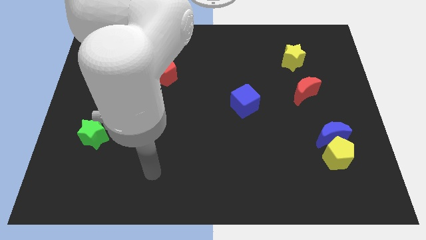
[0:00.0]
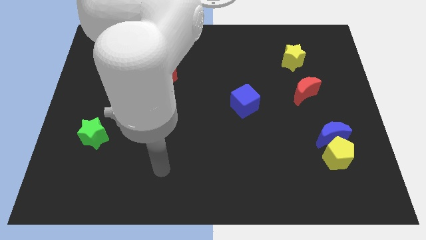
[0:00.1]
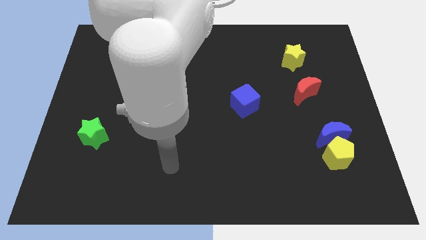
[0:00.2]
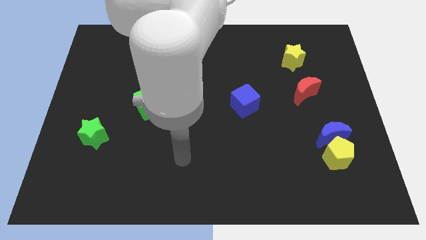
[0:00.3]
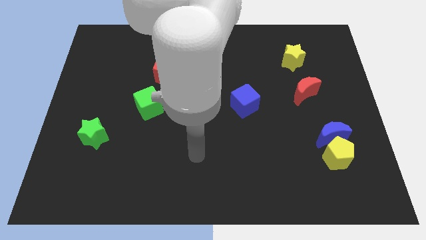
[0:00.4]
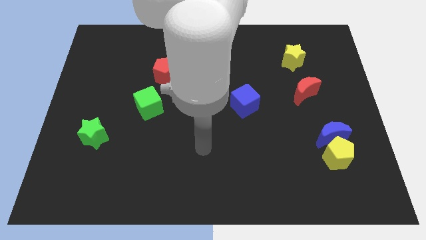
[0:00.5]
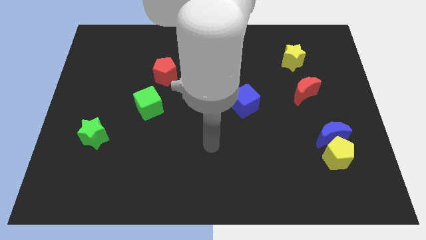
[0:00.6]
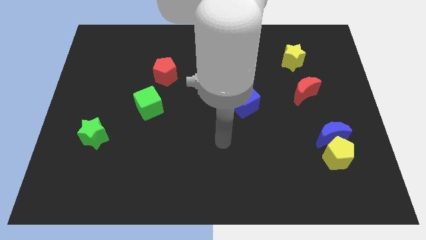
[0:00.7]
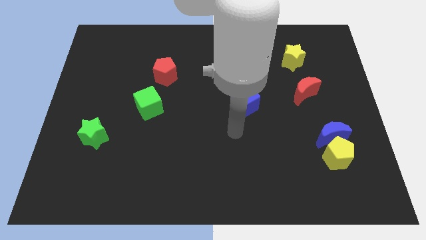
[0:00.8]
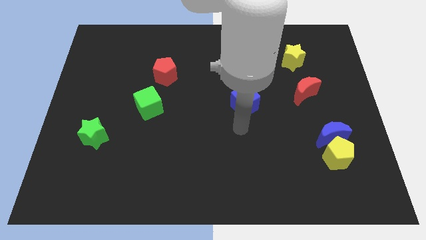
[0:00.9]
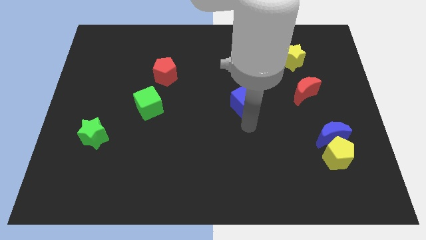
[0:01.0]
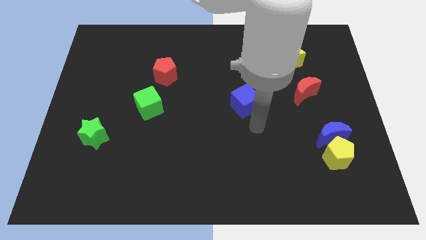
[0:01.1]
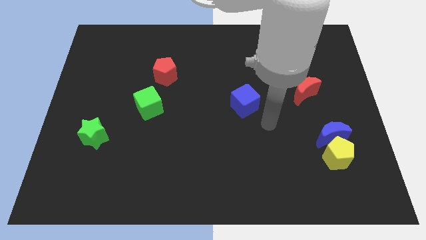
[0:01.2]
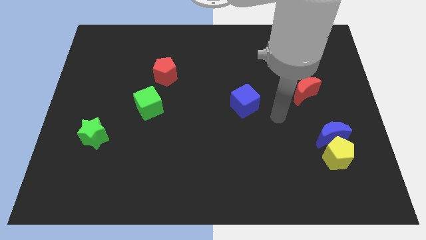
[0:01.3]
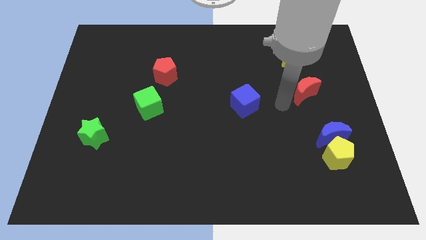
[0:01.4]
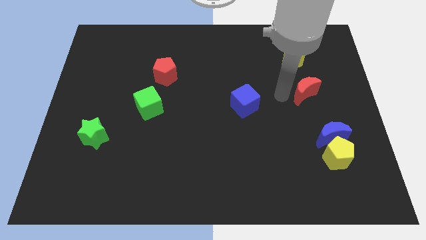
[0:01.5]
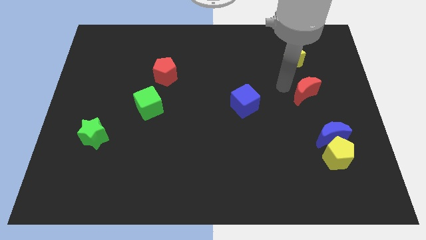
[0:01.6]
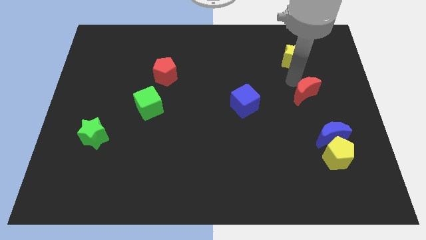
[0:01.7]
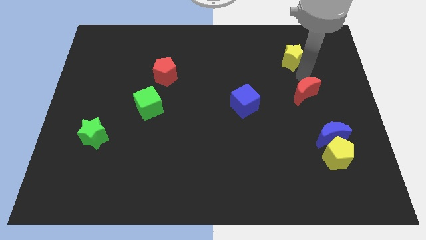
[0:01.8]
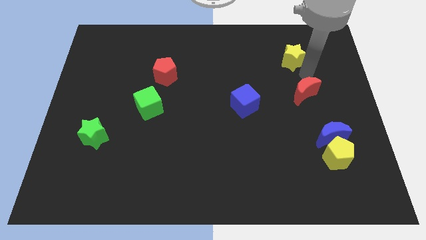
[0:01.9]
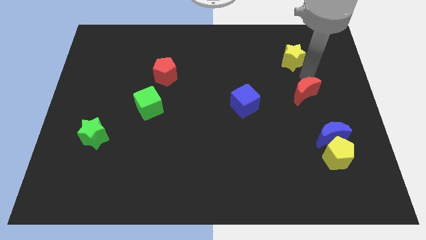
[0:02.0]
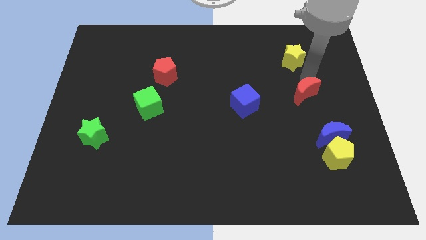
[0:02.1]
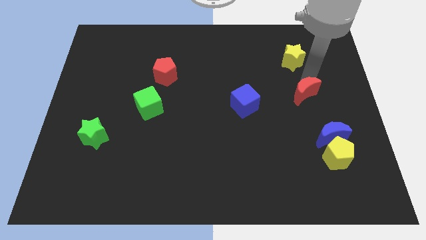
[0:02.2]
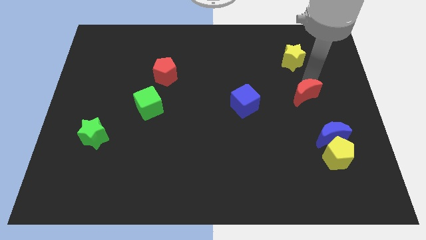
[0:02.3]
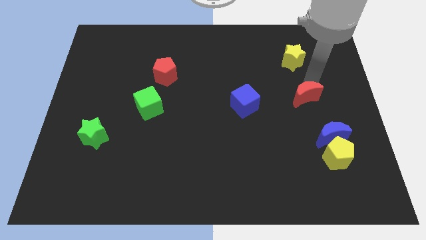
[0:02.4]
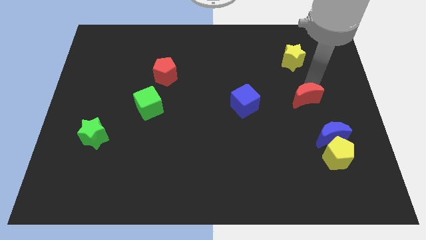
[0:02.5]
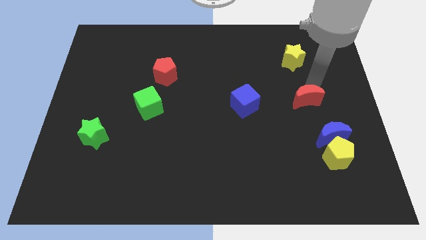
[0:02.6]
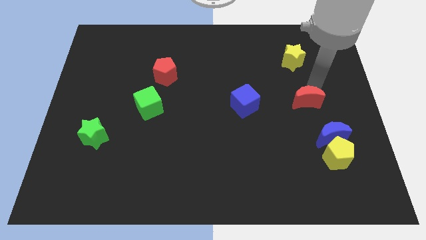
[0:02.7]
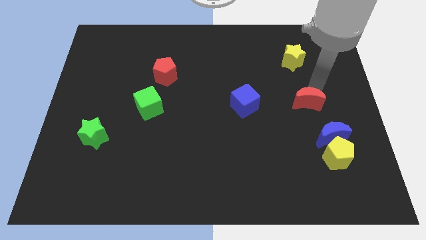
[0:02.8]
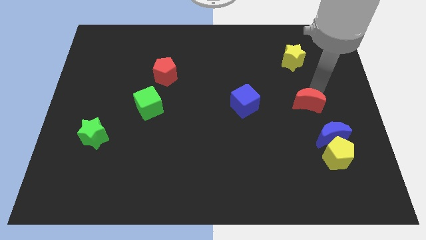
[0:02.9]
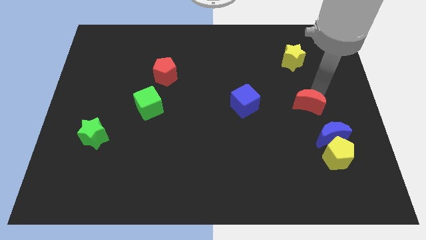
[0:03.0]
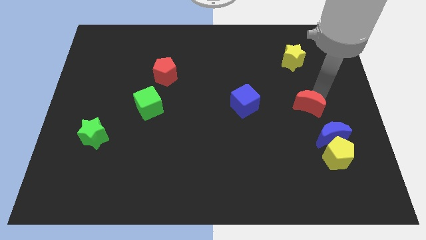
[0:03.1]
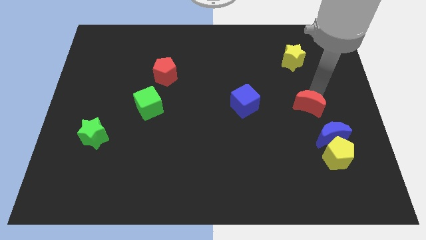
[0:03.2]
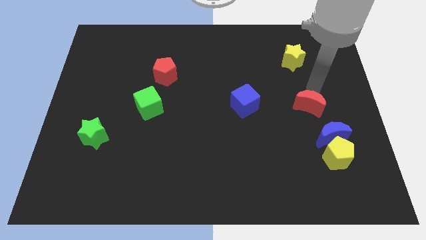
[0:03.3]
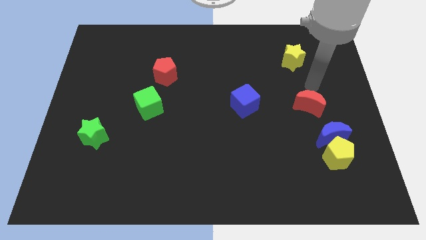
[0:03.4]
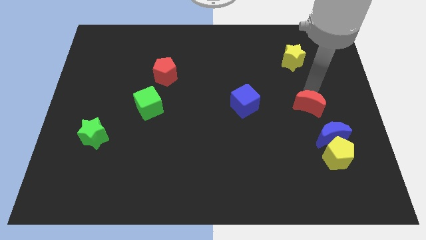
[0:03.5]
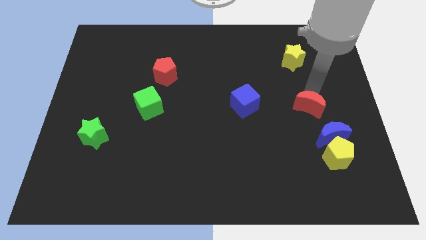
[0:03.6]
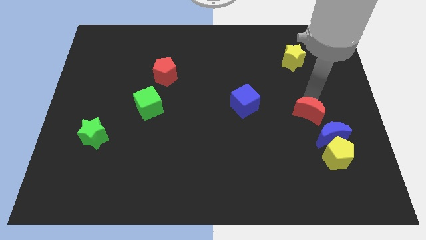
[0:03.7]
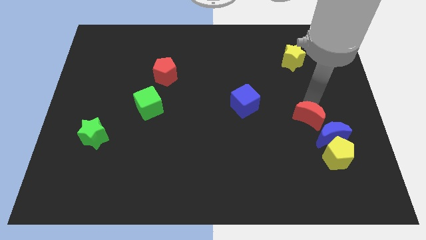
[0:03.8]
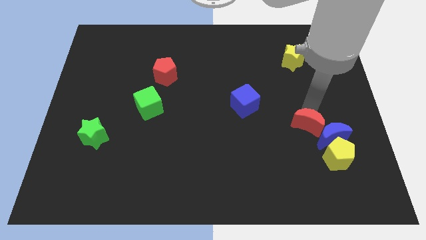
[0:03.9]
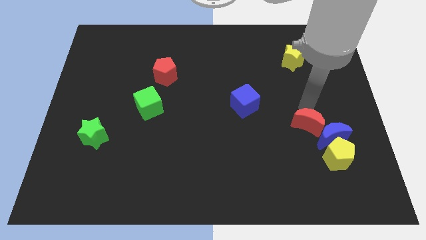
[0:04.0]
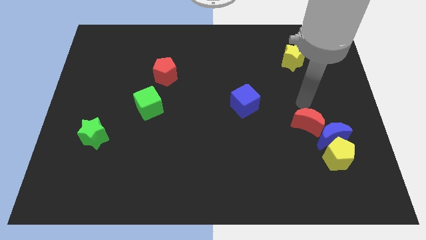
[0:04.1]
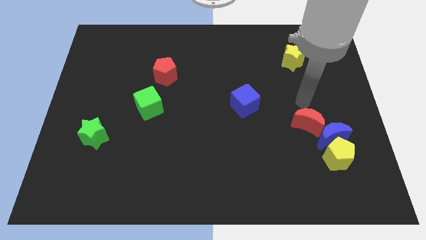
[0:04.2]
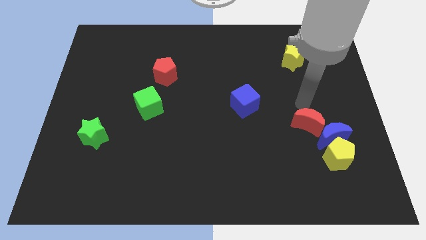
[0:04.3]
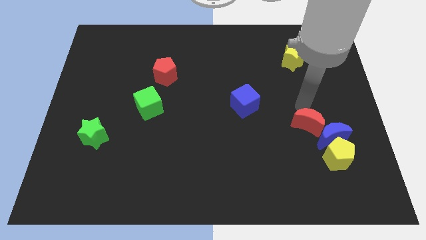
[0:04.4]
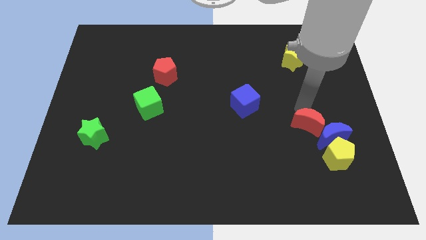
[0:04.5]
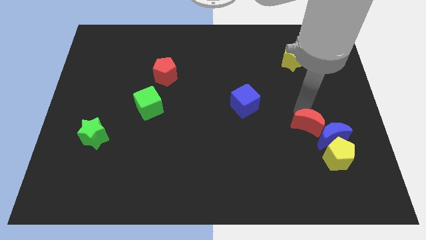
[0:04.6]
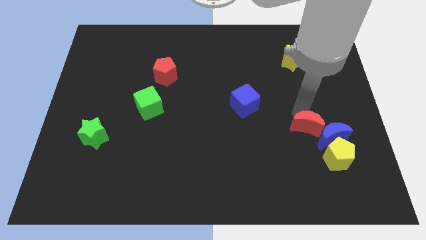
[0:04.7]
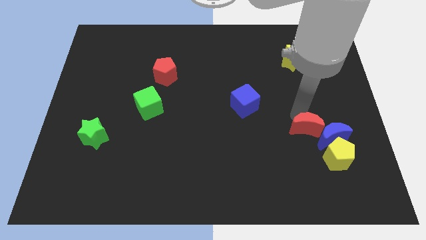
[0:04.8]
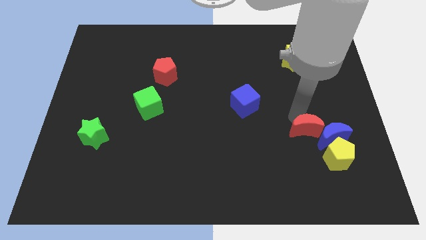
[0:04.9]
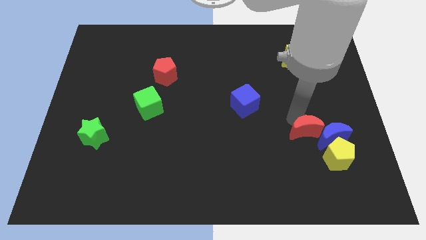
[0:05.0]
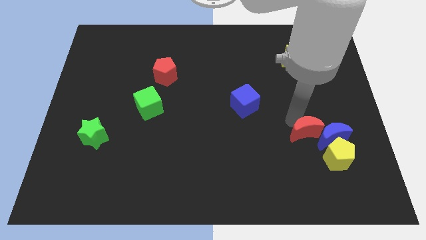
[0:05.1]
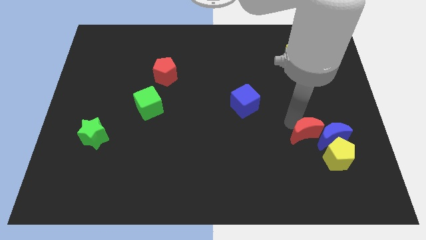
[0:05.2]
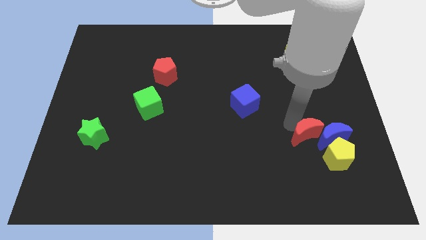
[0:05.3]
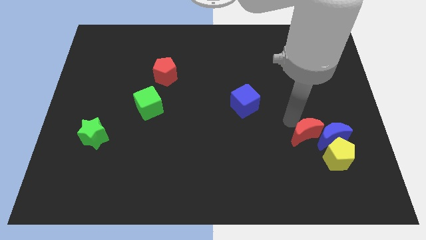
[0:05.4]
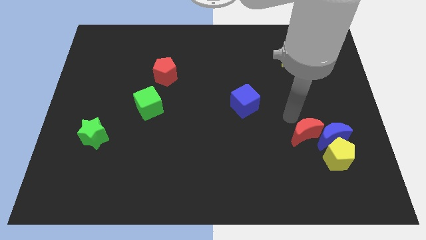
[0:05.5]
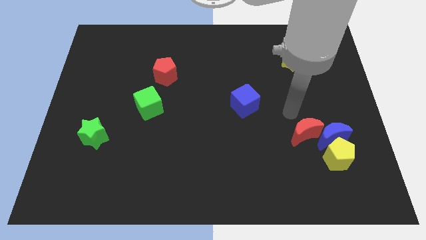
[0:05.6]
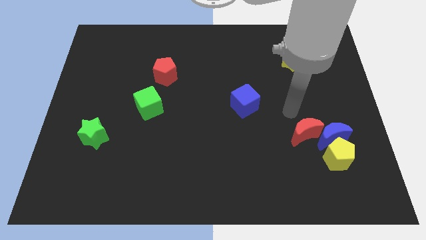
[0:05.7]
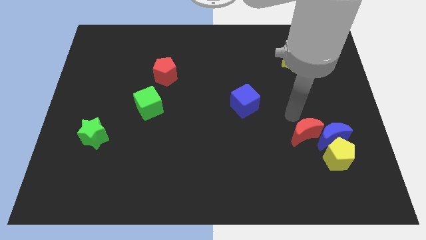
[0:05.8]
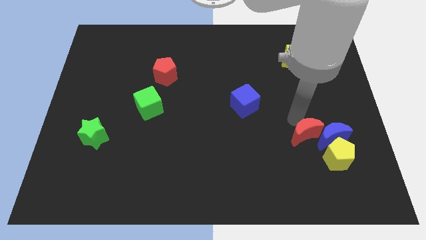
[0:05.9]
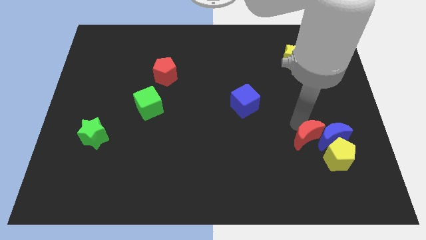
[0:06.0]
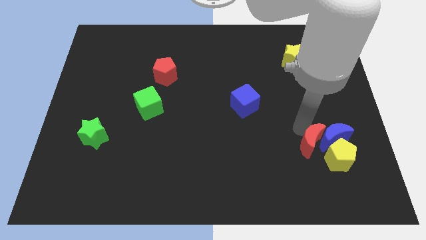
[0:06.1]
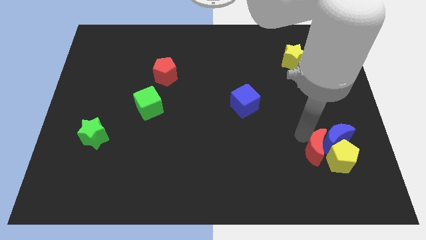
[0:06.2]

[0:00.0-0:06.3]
put the red moon towards the yellow pentagon
